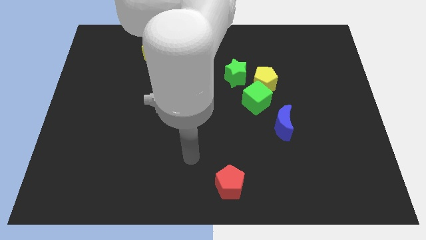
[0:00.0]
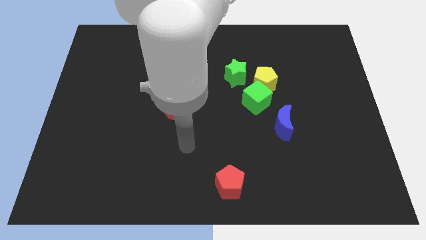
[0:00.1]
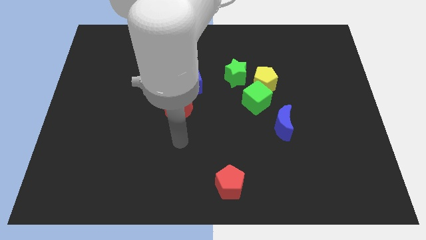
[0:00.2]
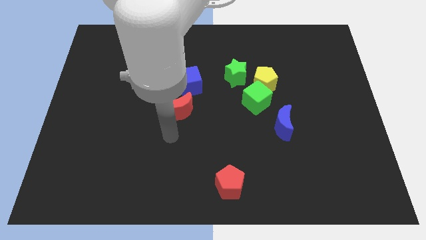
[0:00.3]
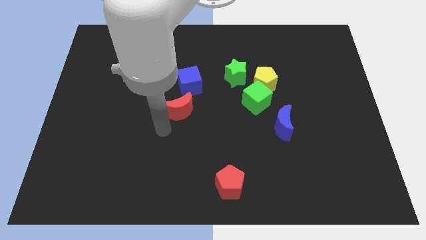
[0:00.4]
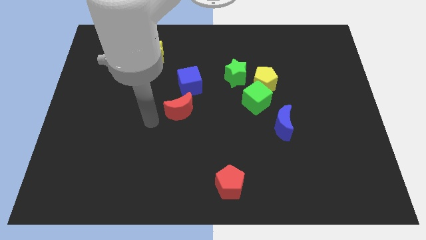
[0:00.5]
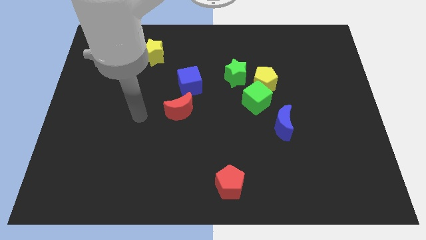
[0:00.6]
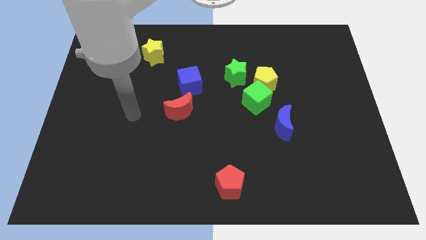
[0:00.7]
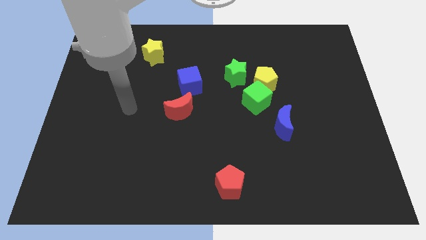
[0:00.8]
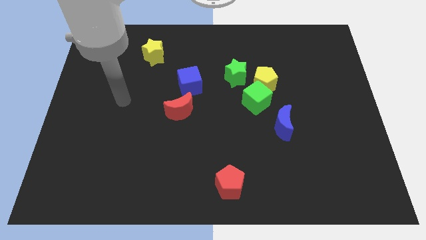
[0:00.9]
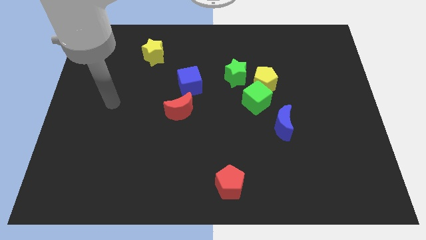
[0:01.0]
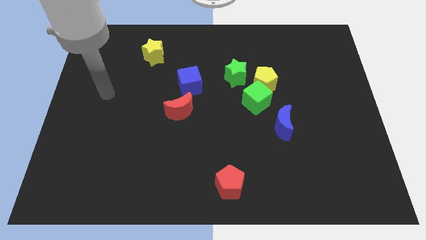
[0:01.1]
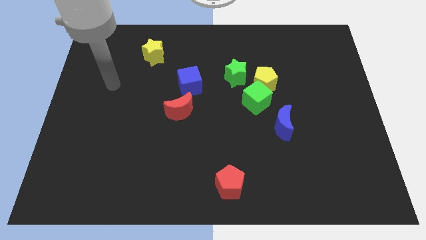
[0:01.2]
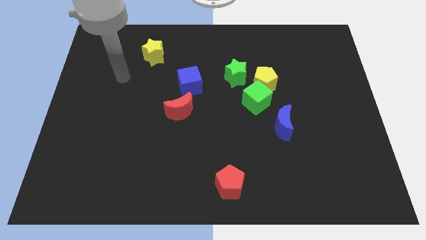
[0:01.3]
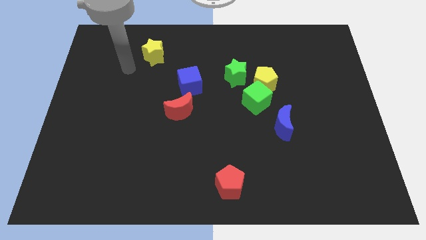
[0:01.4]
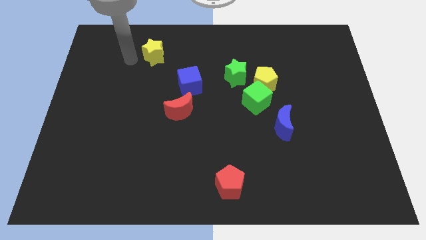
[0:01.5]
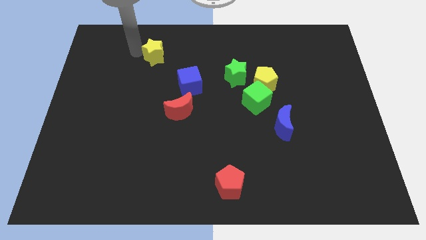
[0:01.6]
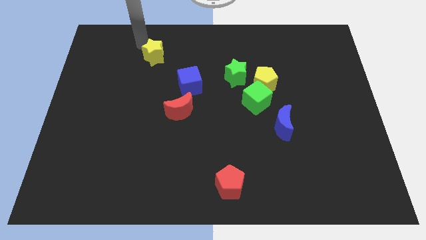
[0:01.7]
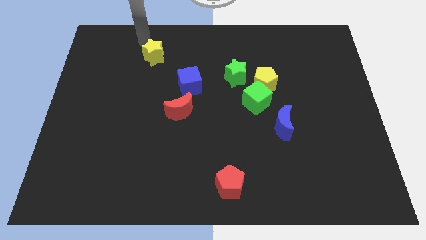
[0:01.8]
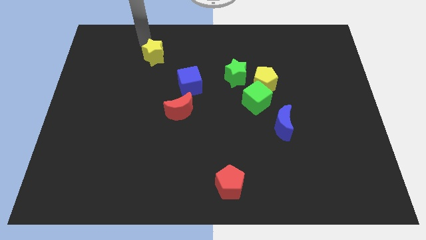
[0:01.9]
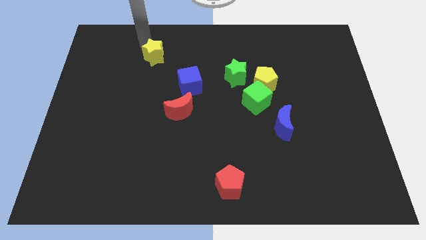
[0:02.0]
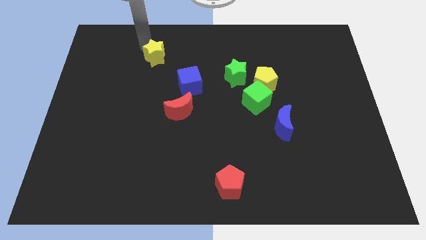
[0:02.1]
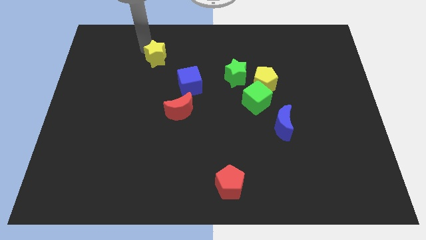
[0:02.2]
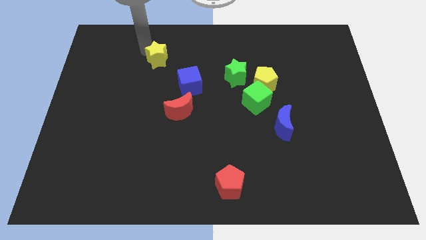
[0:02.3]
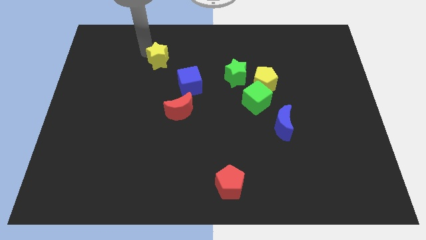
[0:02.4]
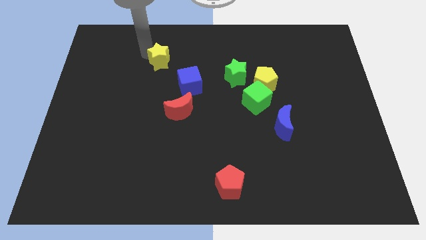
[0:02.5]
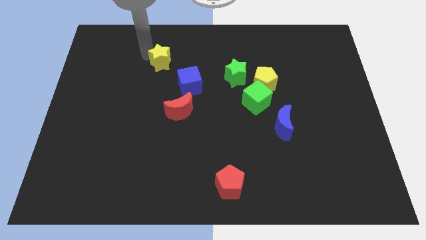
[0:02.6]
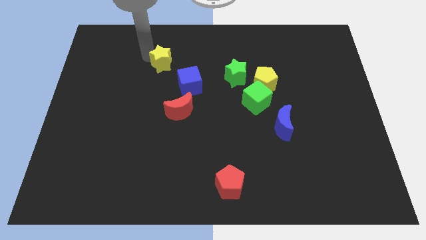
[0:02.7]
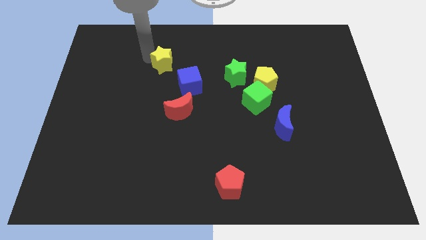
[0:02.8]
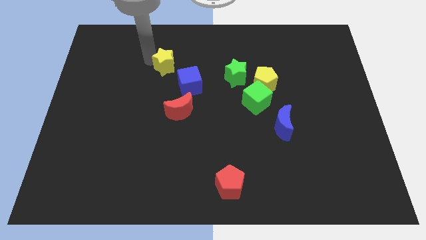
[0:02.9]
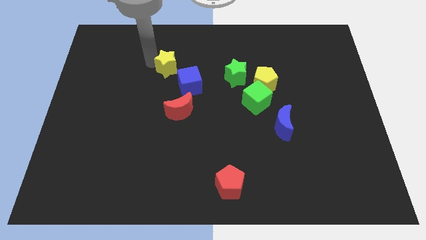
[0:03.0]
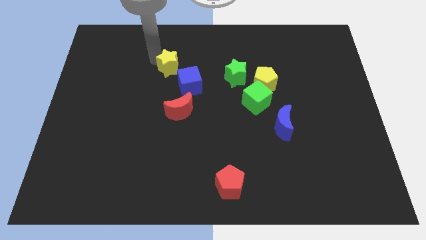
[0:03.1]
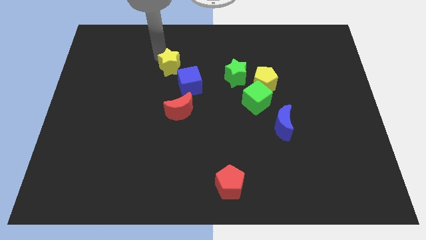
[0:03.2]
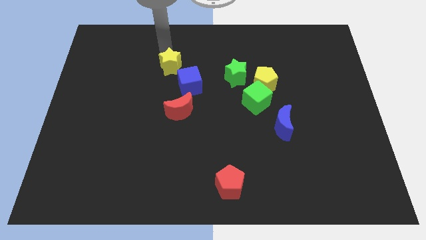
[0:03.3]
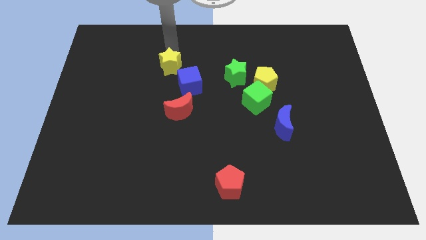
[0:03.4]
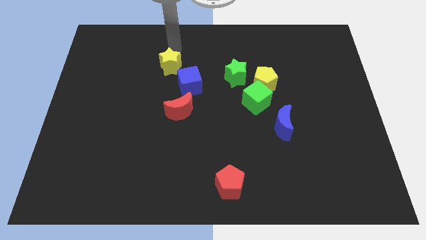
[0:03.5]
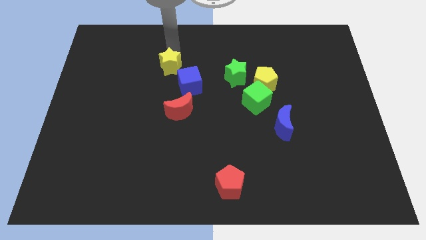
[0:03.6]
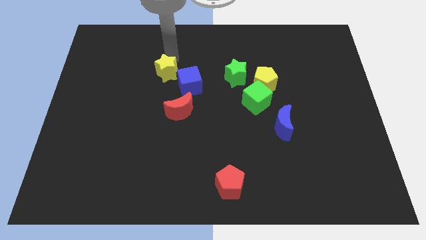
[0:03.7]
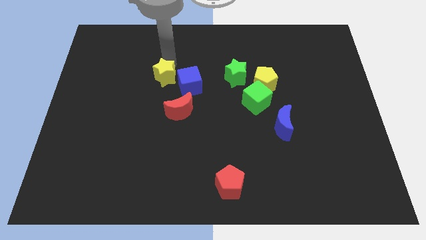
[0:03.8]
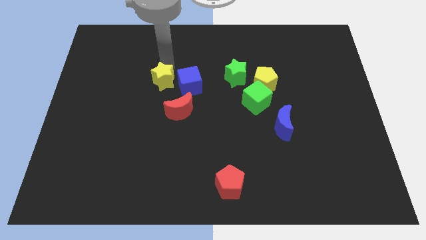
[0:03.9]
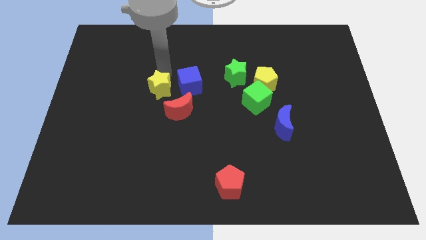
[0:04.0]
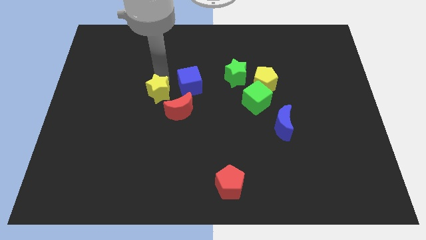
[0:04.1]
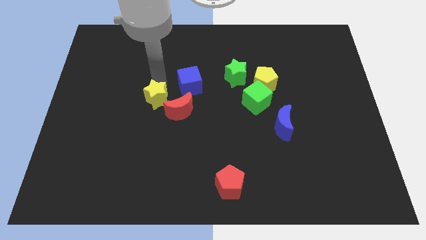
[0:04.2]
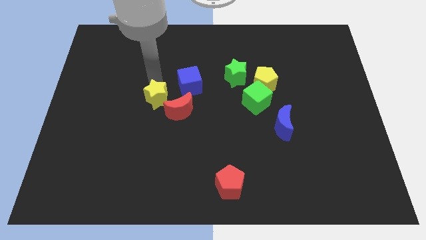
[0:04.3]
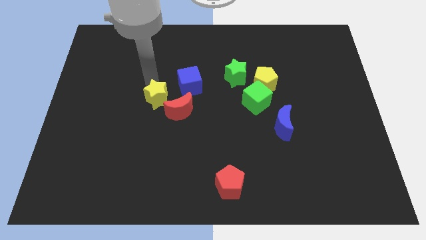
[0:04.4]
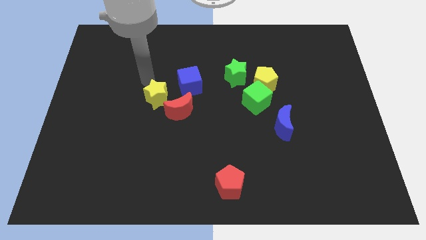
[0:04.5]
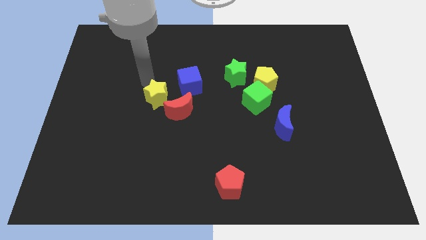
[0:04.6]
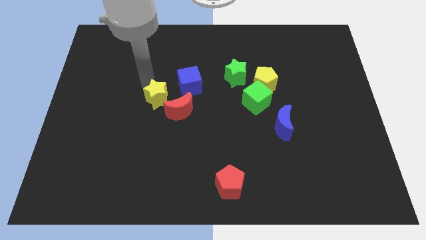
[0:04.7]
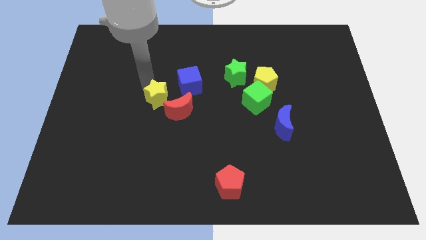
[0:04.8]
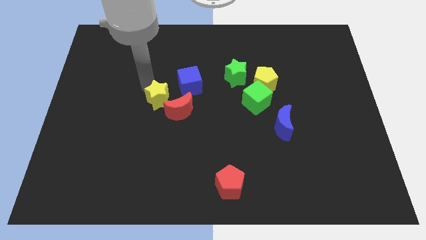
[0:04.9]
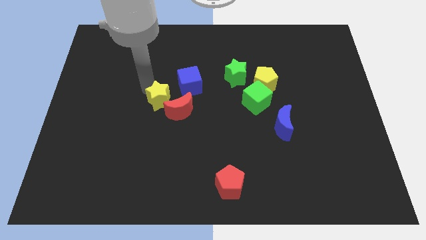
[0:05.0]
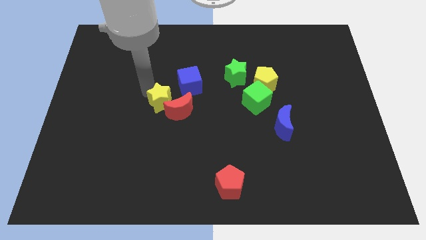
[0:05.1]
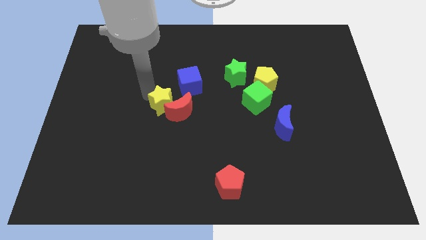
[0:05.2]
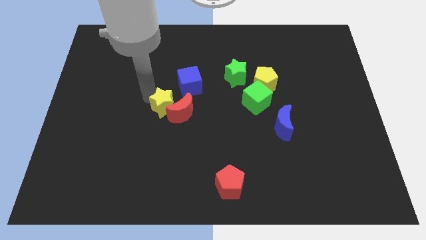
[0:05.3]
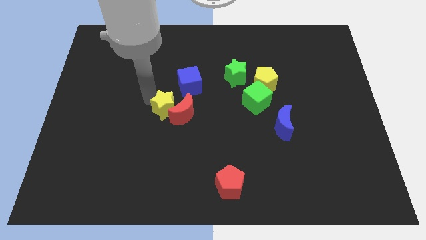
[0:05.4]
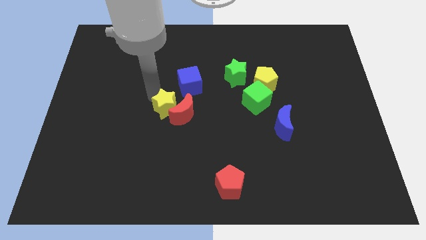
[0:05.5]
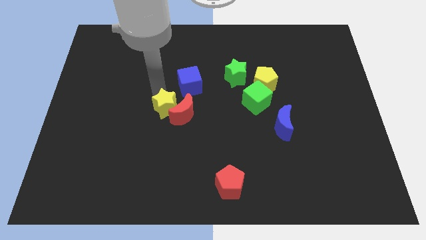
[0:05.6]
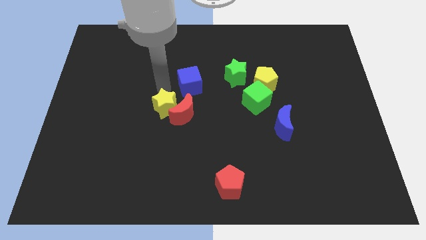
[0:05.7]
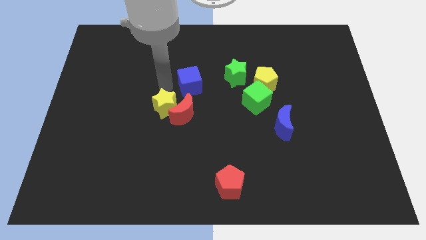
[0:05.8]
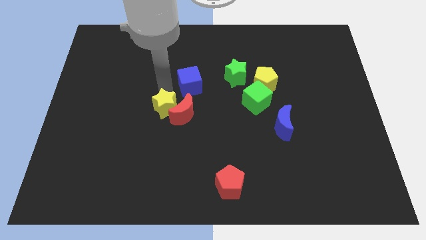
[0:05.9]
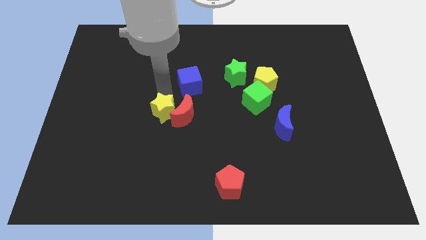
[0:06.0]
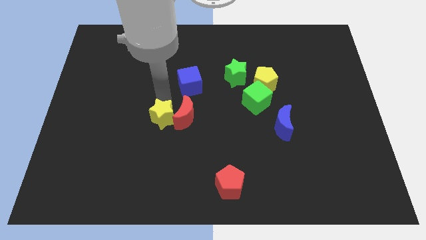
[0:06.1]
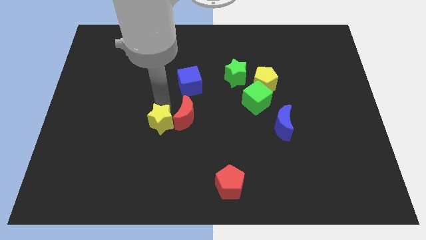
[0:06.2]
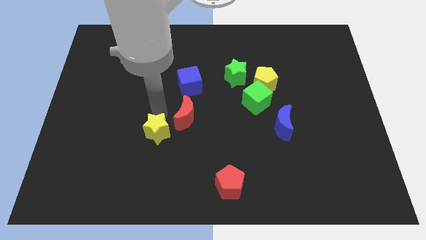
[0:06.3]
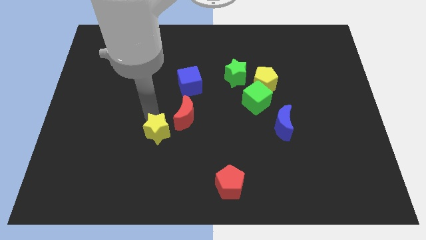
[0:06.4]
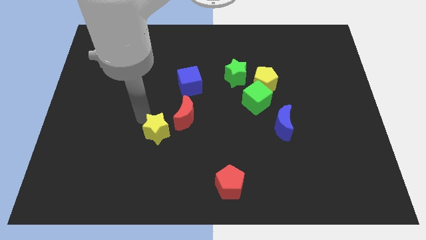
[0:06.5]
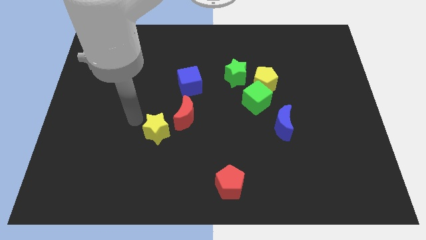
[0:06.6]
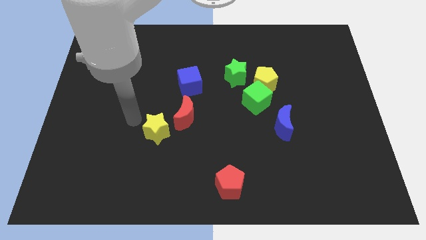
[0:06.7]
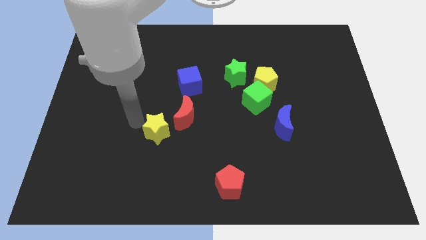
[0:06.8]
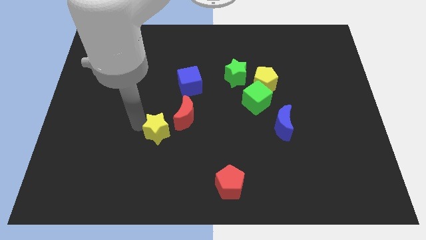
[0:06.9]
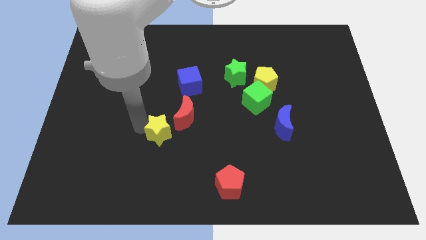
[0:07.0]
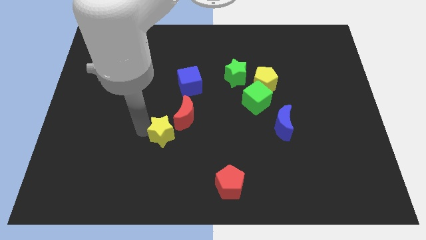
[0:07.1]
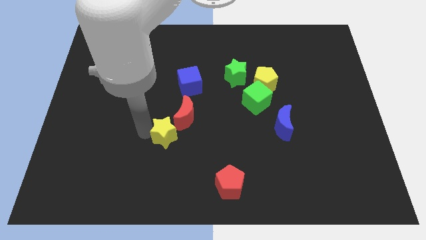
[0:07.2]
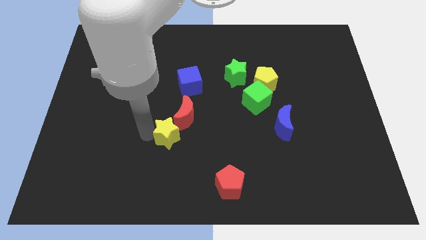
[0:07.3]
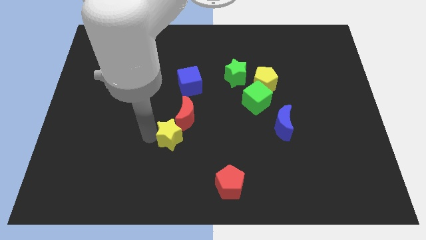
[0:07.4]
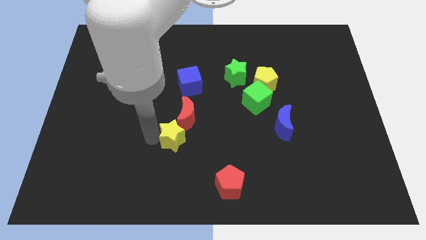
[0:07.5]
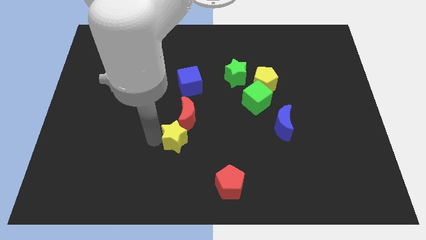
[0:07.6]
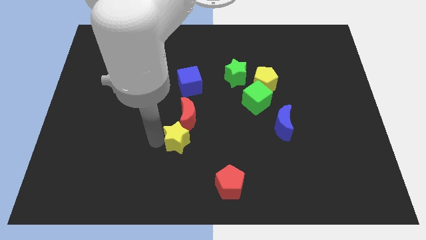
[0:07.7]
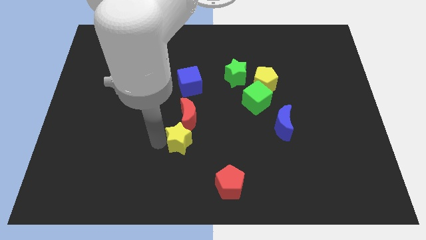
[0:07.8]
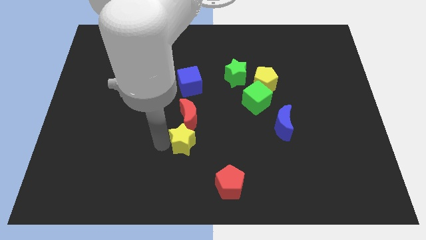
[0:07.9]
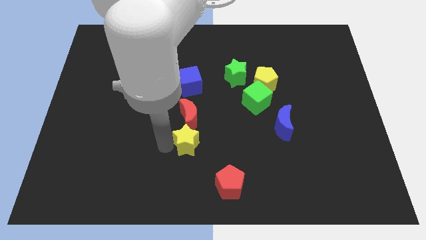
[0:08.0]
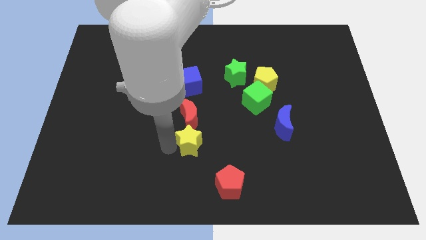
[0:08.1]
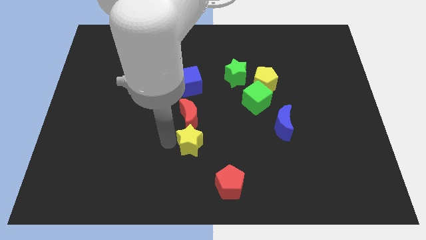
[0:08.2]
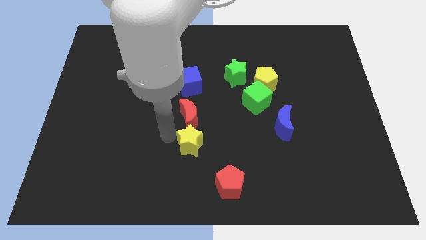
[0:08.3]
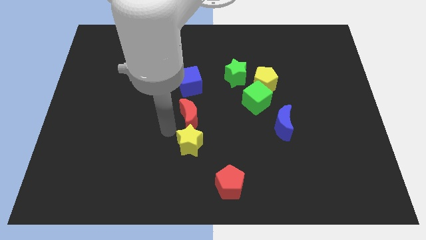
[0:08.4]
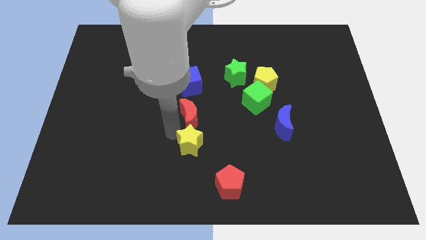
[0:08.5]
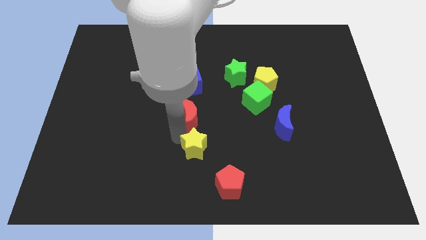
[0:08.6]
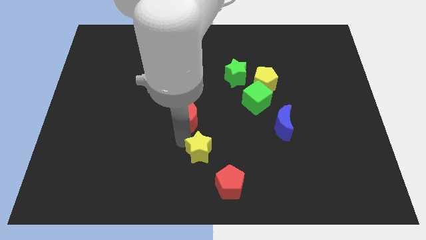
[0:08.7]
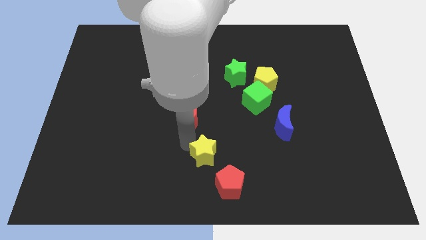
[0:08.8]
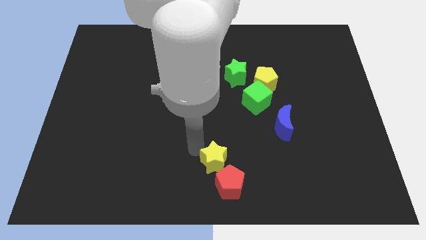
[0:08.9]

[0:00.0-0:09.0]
move the yellow star next to the red pentagon
